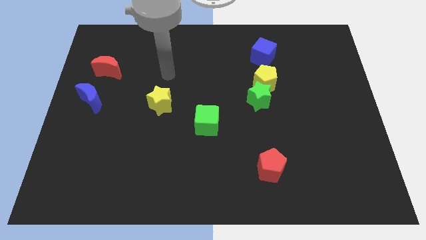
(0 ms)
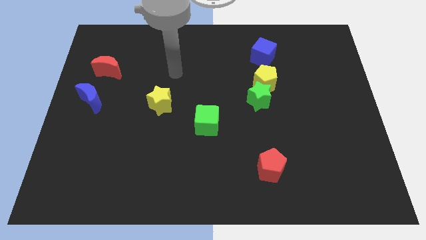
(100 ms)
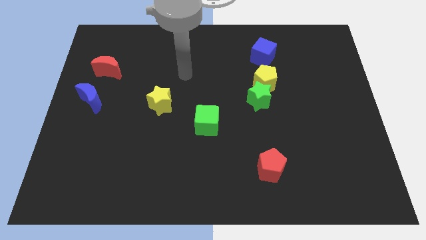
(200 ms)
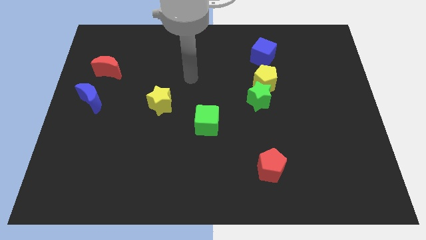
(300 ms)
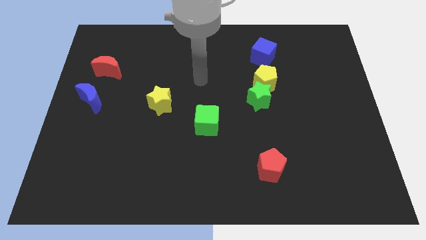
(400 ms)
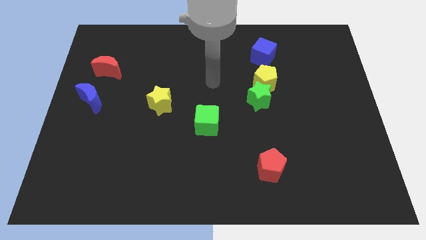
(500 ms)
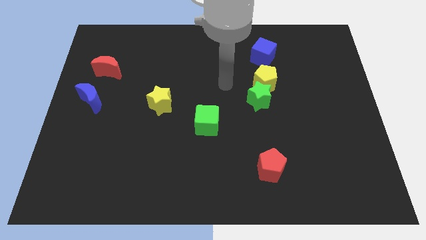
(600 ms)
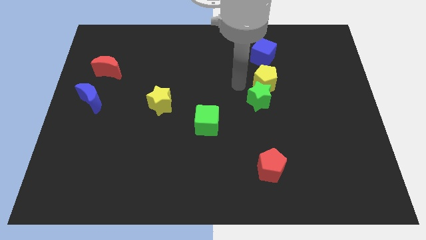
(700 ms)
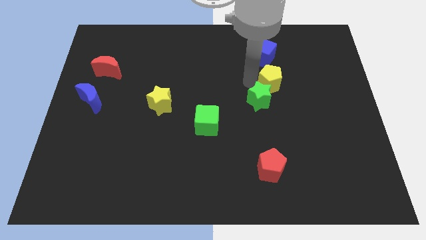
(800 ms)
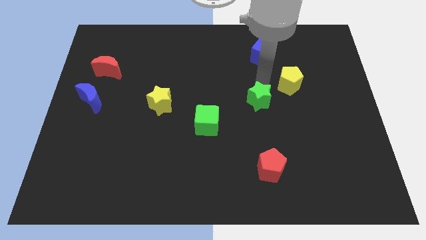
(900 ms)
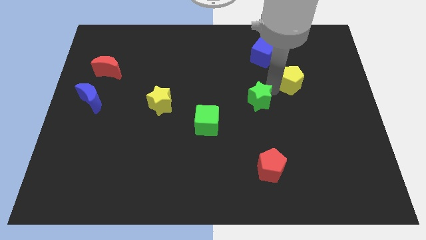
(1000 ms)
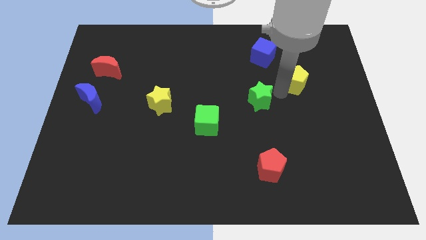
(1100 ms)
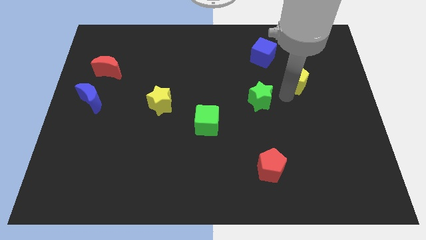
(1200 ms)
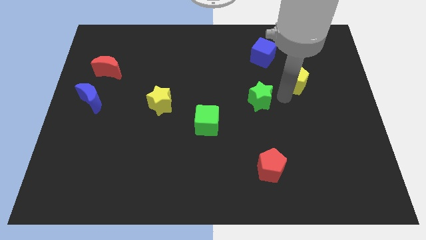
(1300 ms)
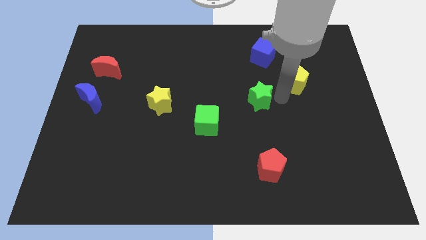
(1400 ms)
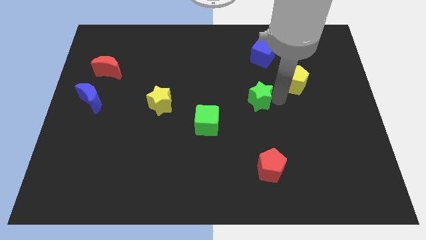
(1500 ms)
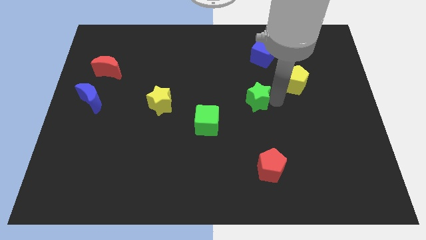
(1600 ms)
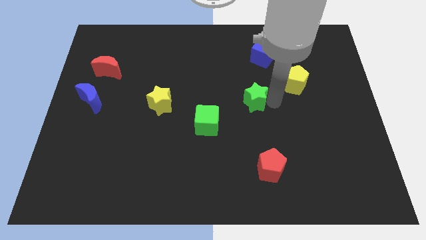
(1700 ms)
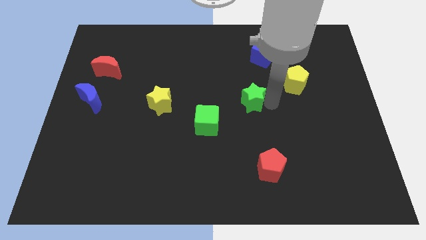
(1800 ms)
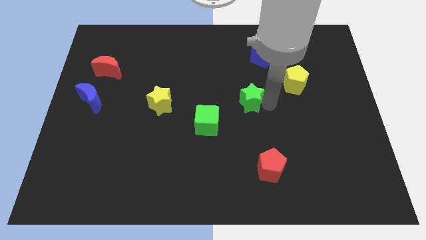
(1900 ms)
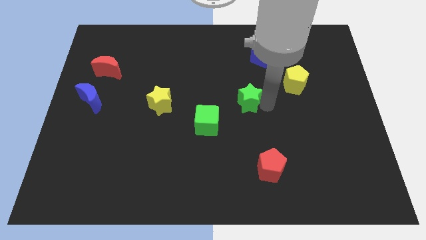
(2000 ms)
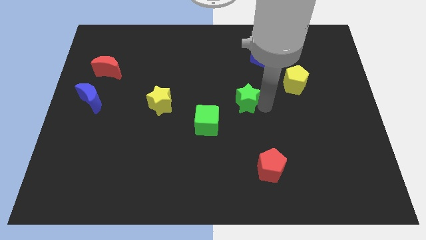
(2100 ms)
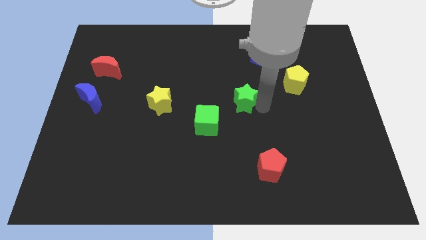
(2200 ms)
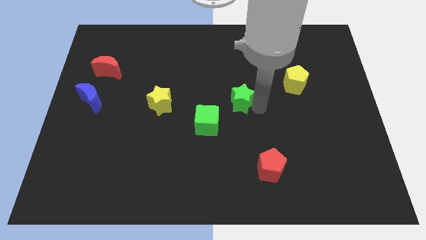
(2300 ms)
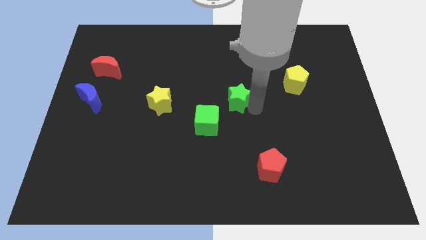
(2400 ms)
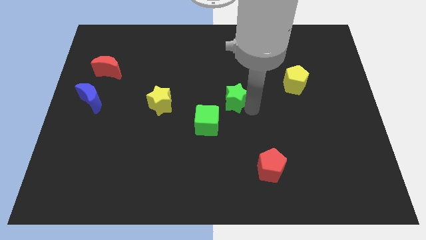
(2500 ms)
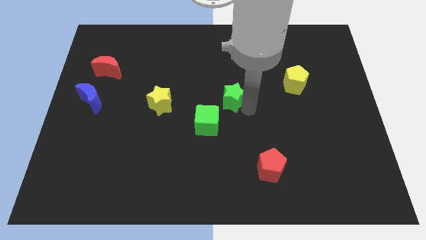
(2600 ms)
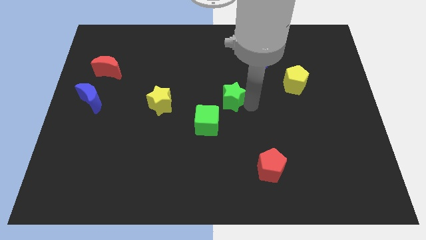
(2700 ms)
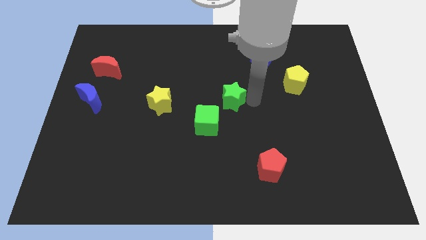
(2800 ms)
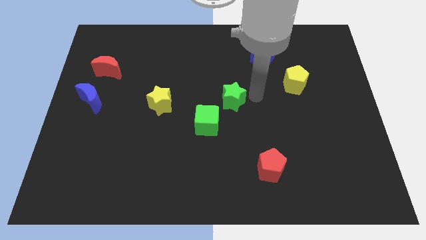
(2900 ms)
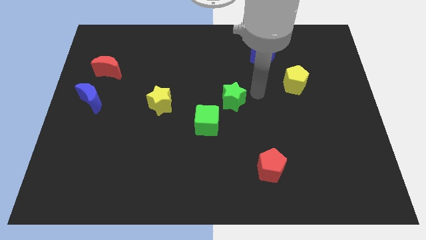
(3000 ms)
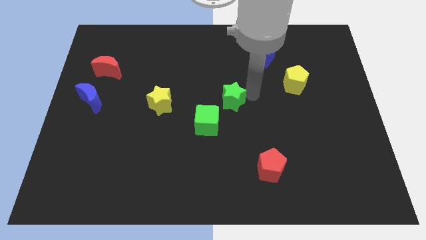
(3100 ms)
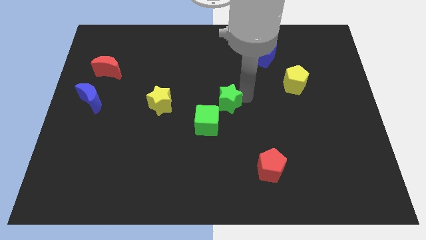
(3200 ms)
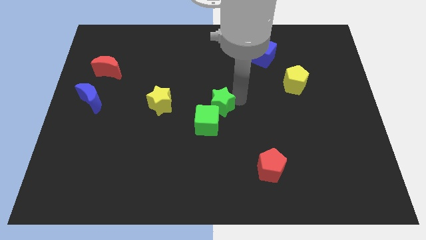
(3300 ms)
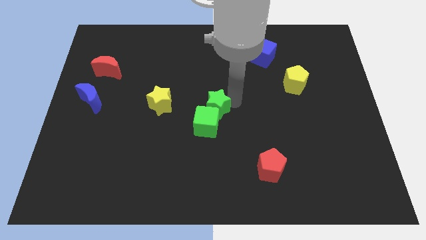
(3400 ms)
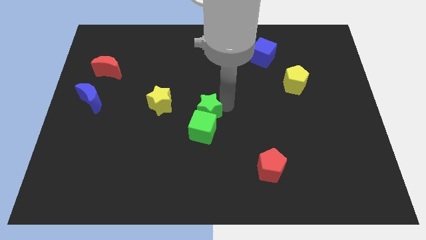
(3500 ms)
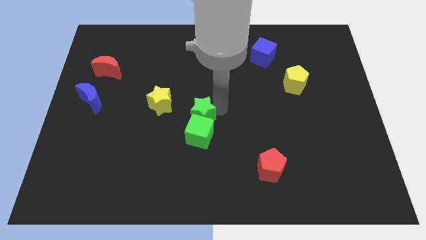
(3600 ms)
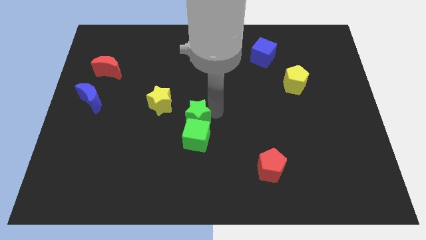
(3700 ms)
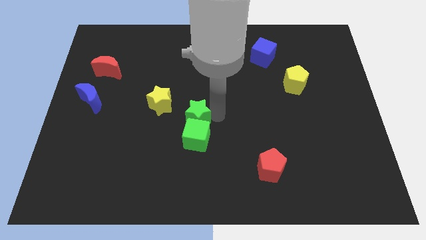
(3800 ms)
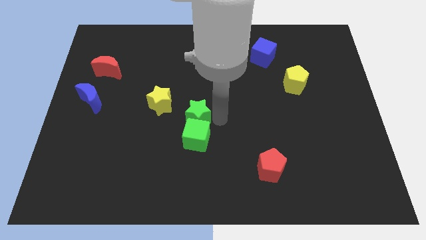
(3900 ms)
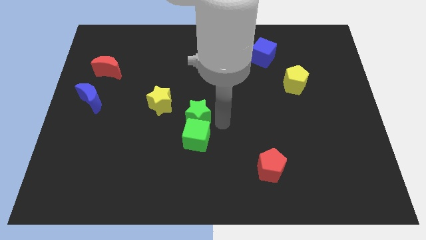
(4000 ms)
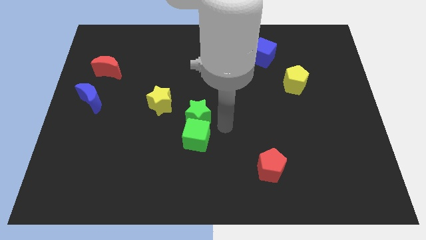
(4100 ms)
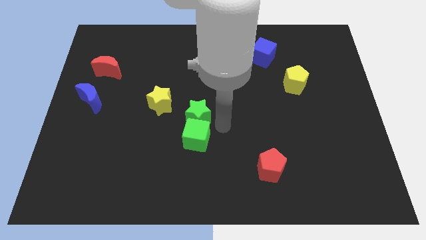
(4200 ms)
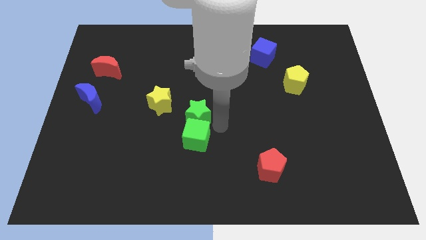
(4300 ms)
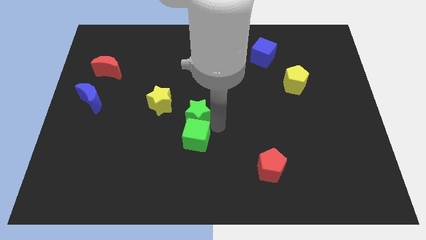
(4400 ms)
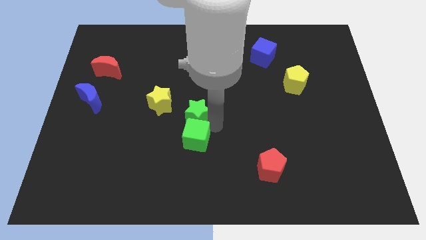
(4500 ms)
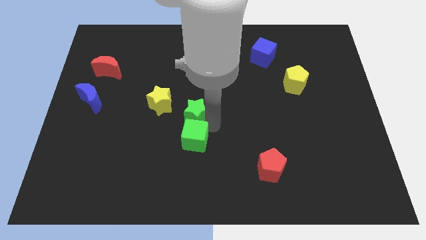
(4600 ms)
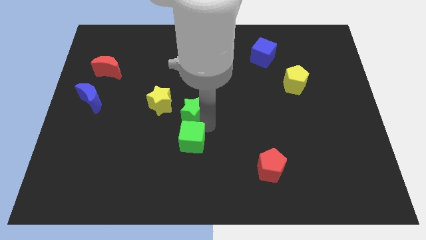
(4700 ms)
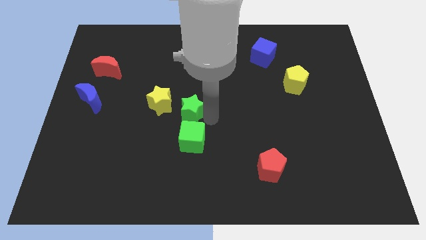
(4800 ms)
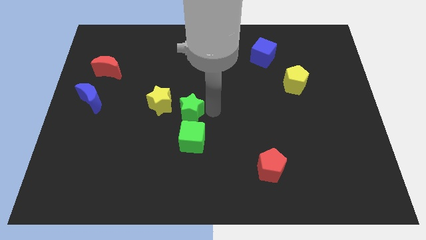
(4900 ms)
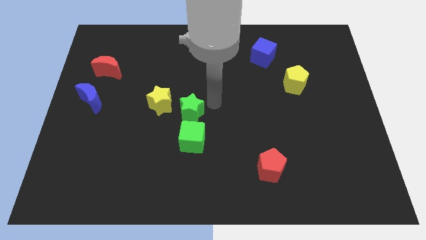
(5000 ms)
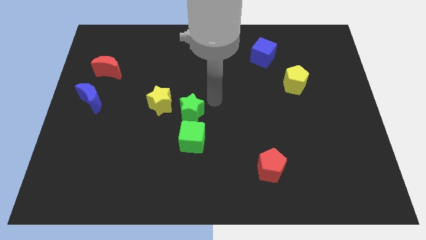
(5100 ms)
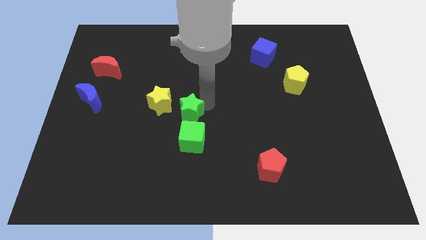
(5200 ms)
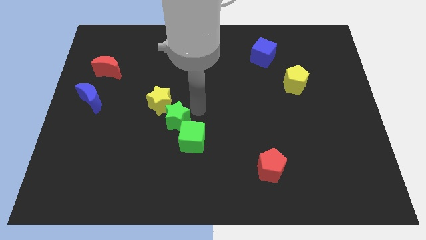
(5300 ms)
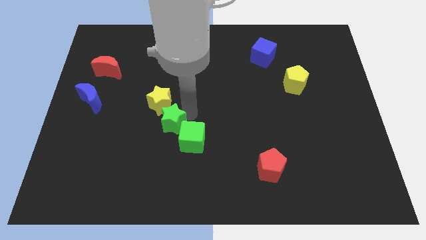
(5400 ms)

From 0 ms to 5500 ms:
slide the green star just left of the green cube

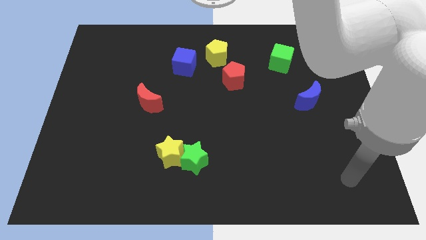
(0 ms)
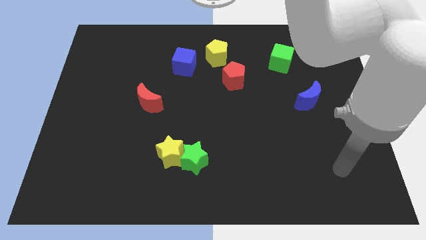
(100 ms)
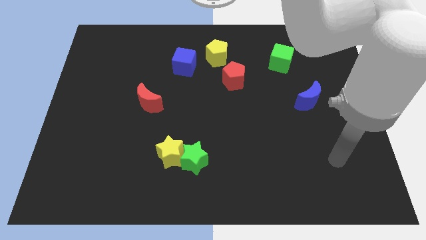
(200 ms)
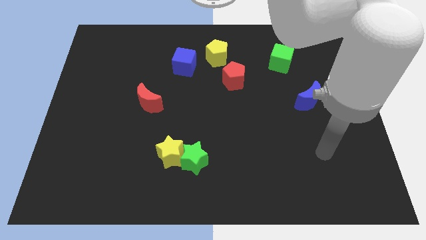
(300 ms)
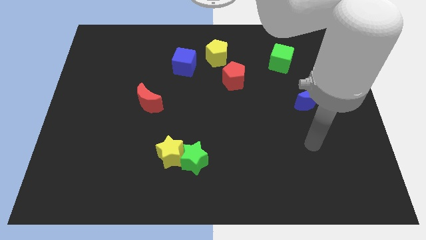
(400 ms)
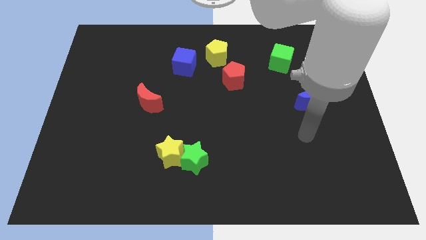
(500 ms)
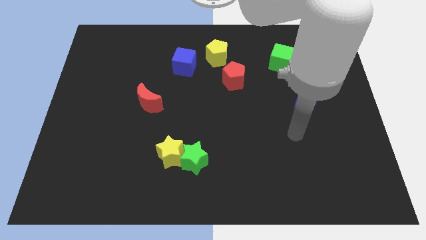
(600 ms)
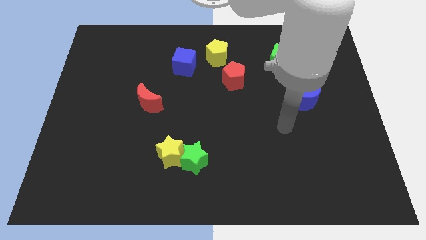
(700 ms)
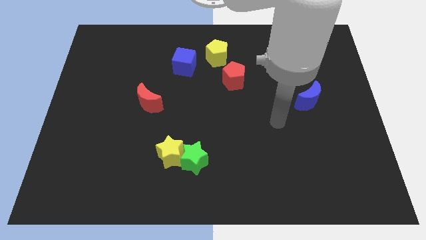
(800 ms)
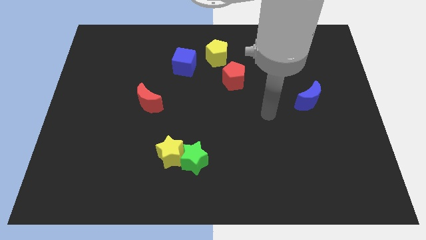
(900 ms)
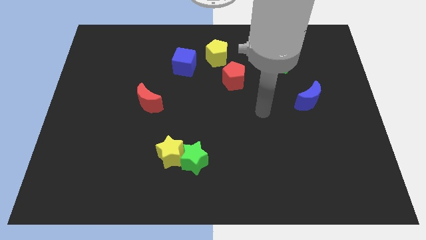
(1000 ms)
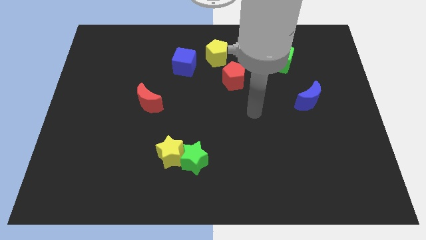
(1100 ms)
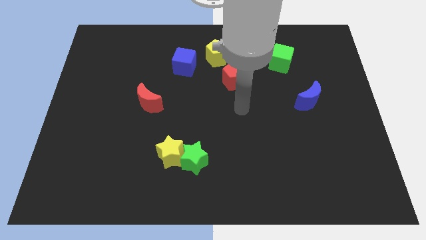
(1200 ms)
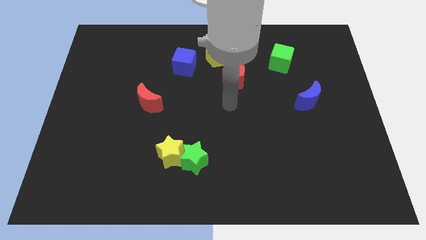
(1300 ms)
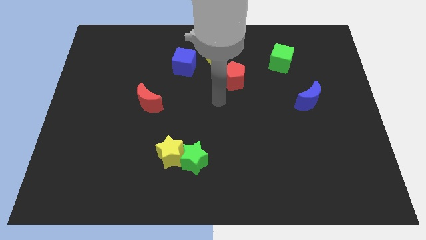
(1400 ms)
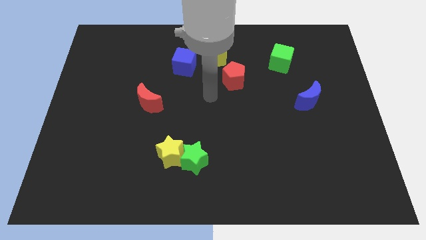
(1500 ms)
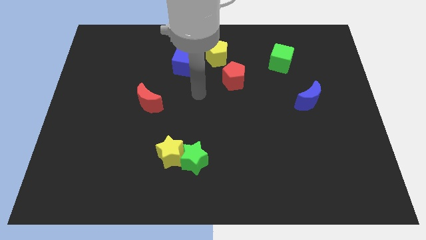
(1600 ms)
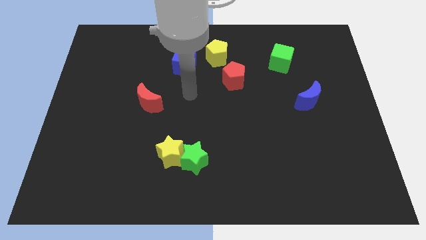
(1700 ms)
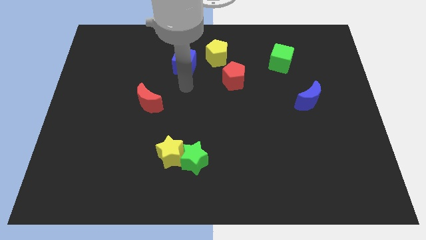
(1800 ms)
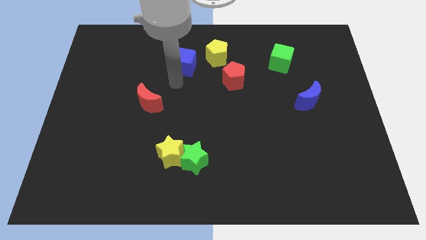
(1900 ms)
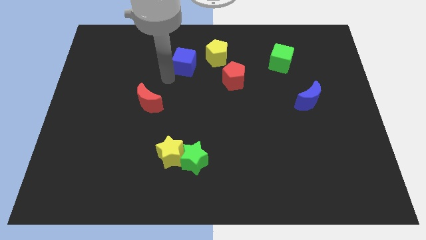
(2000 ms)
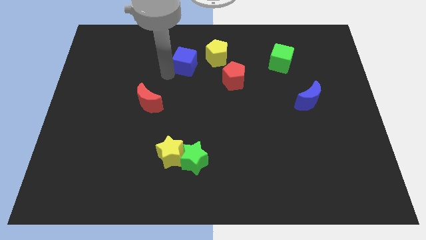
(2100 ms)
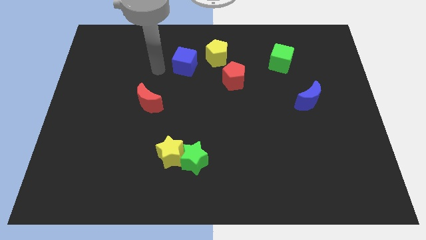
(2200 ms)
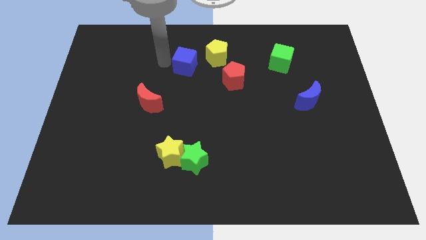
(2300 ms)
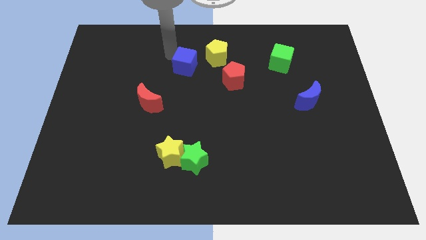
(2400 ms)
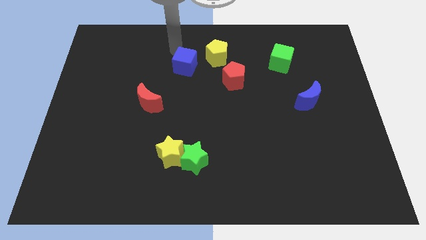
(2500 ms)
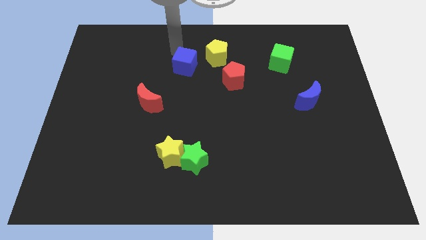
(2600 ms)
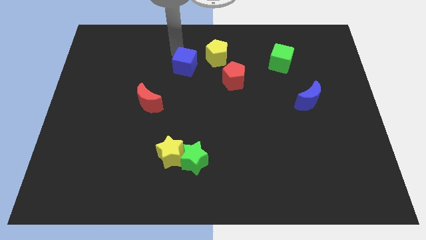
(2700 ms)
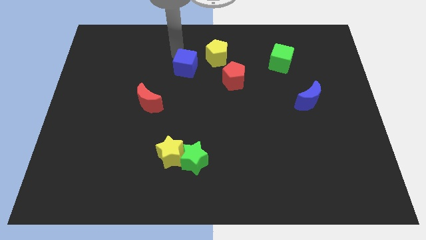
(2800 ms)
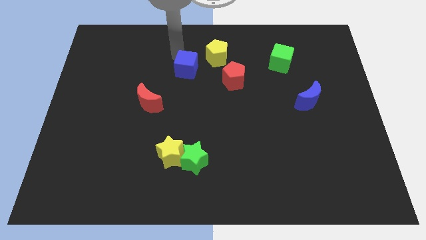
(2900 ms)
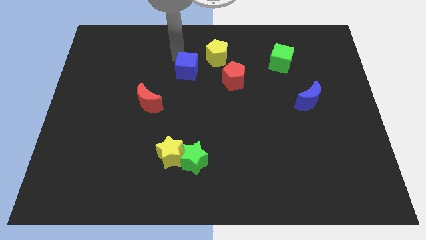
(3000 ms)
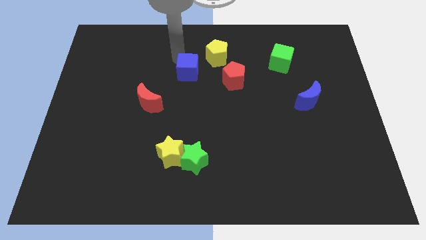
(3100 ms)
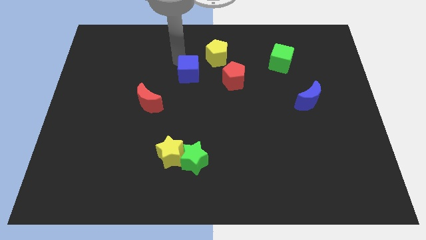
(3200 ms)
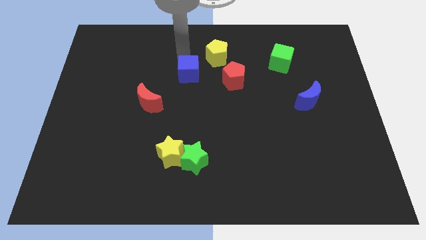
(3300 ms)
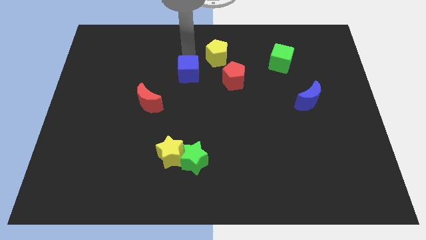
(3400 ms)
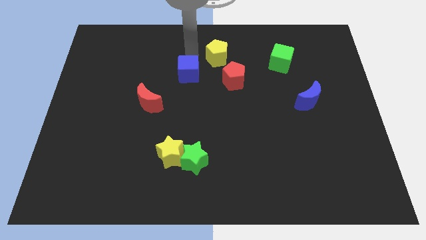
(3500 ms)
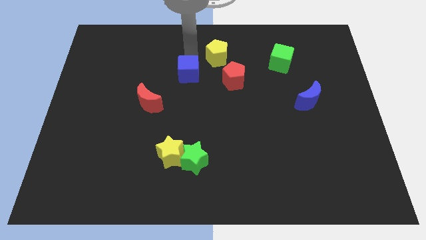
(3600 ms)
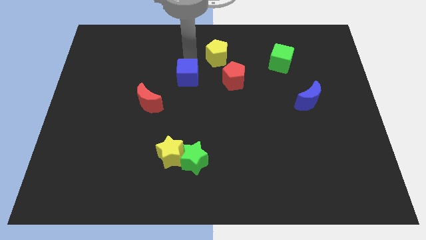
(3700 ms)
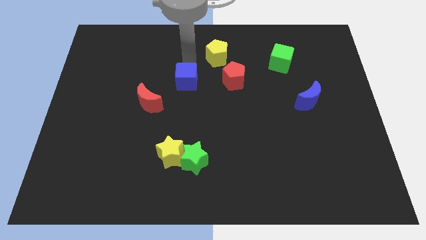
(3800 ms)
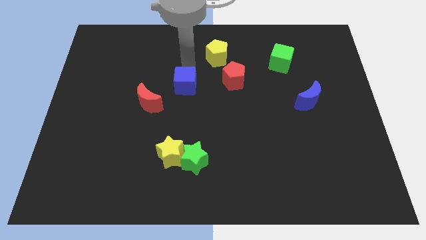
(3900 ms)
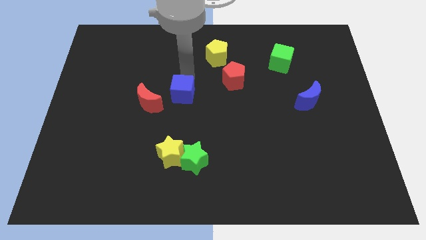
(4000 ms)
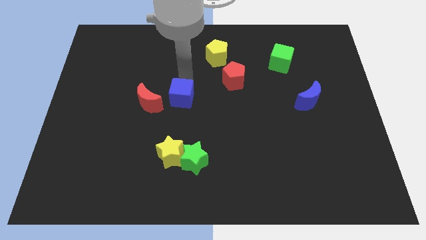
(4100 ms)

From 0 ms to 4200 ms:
slide the blue cube above the yellow star
